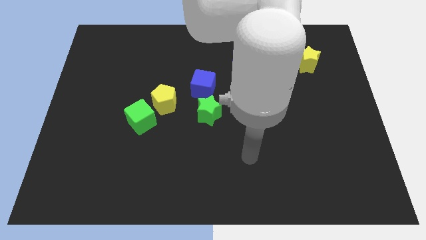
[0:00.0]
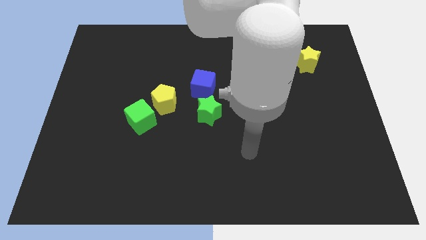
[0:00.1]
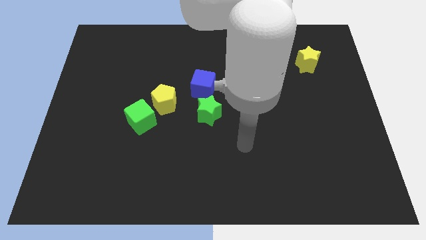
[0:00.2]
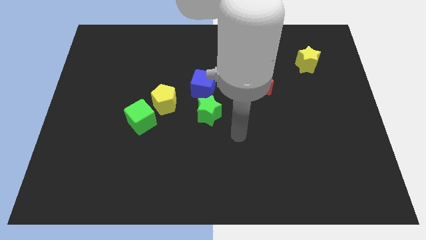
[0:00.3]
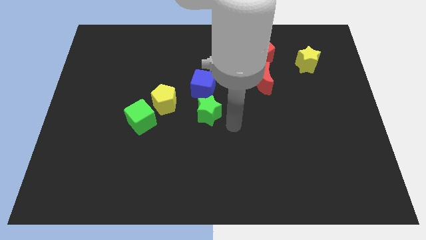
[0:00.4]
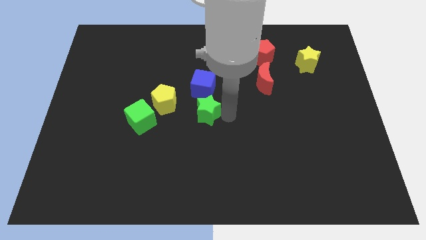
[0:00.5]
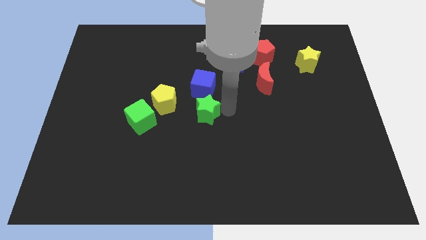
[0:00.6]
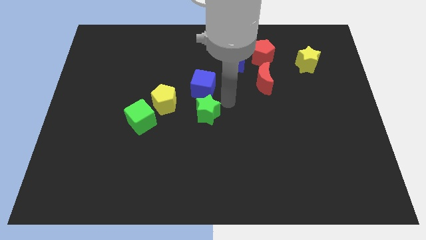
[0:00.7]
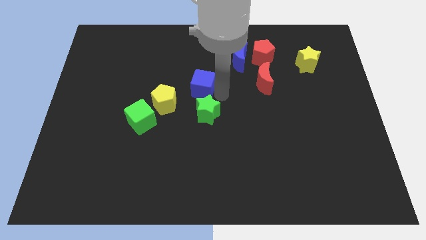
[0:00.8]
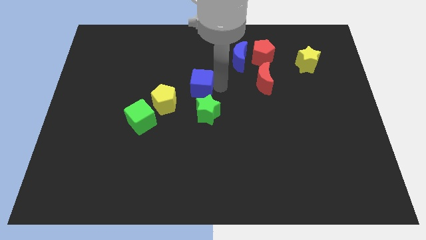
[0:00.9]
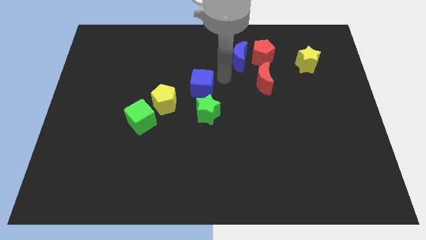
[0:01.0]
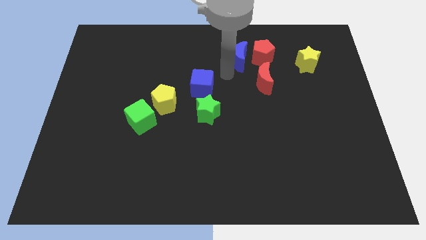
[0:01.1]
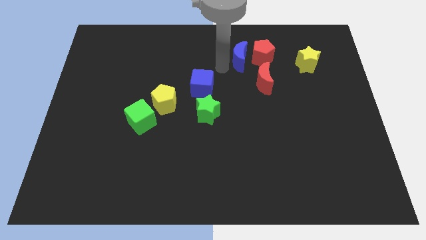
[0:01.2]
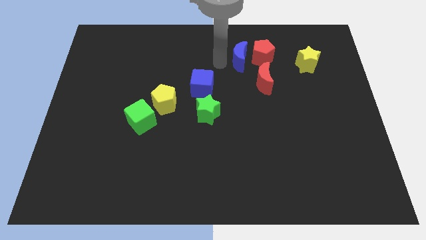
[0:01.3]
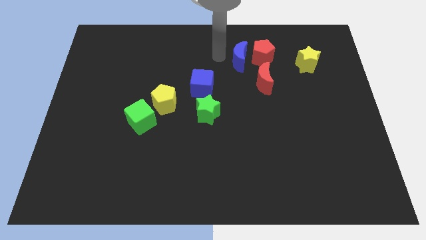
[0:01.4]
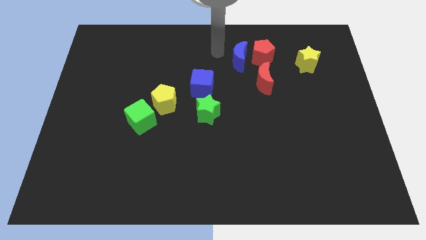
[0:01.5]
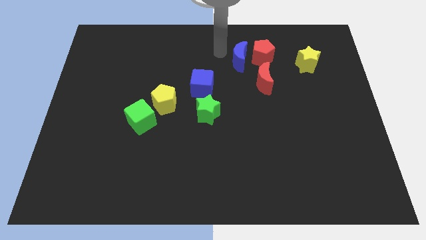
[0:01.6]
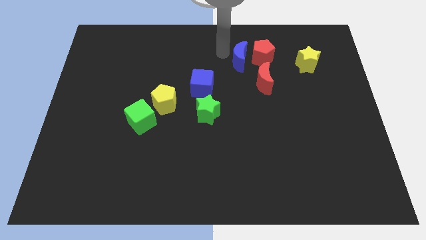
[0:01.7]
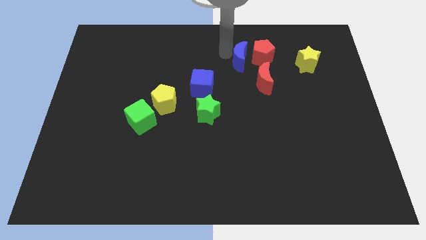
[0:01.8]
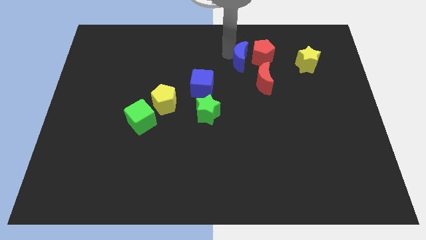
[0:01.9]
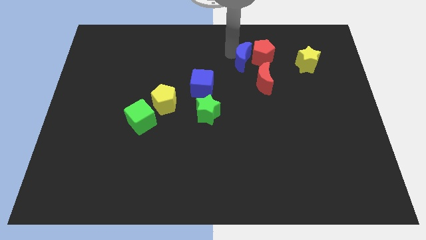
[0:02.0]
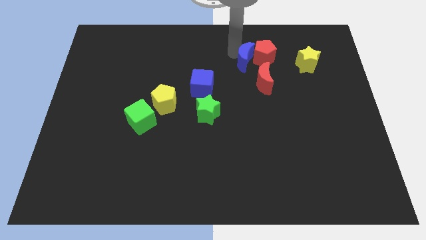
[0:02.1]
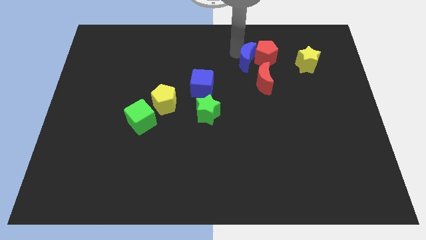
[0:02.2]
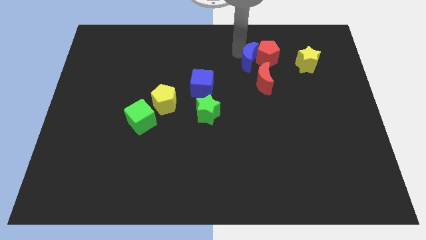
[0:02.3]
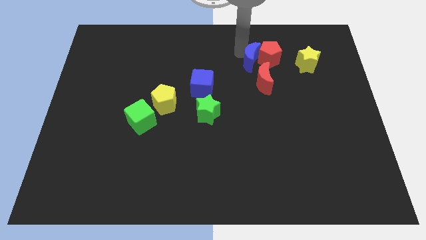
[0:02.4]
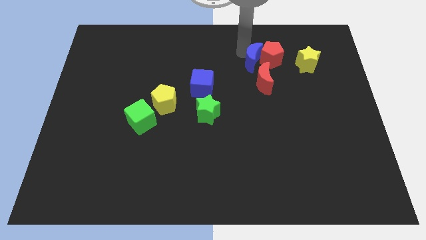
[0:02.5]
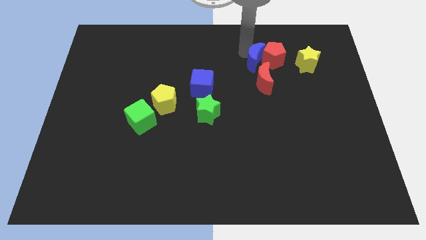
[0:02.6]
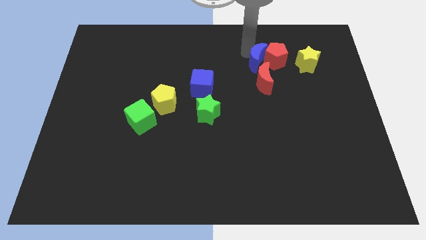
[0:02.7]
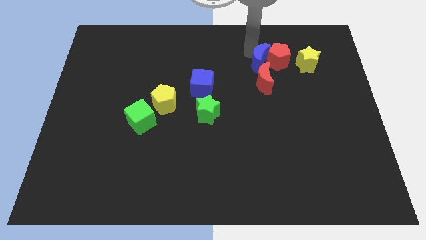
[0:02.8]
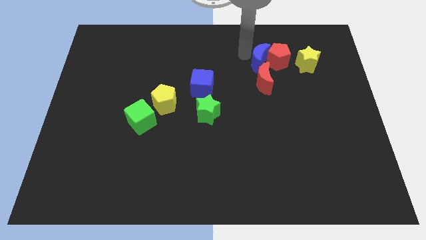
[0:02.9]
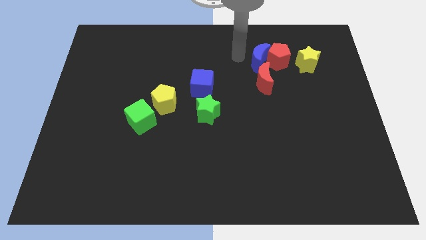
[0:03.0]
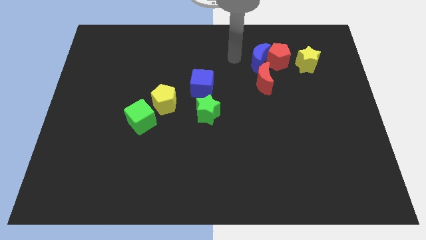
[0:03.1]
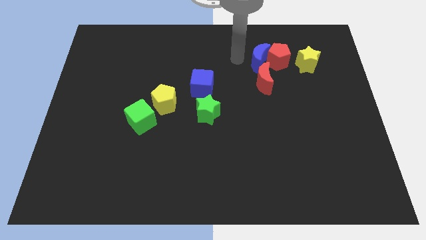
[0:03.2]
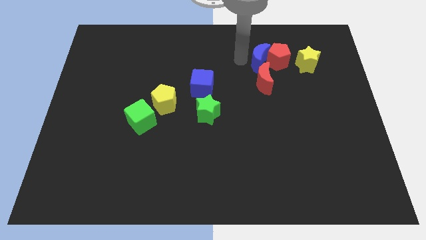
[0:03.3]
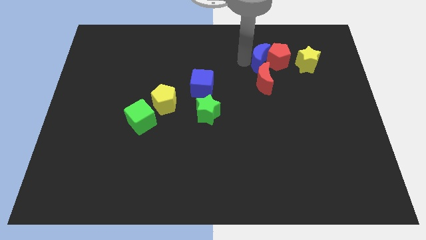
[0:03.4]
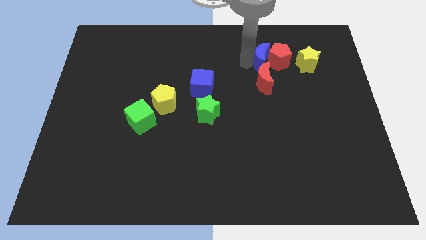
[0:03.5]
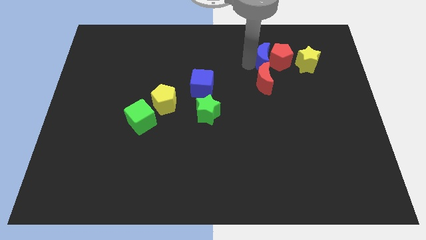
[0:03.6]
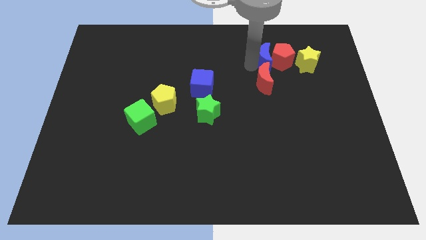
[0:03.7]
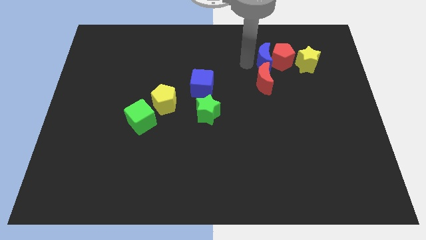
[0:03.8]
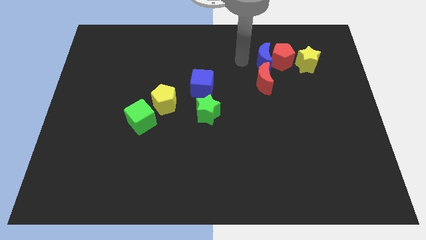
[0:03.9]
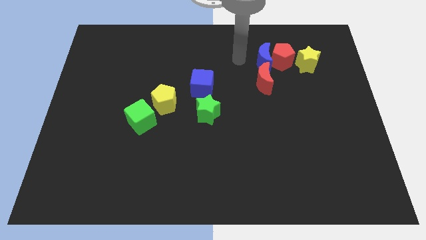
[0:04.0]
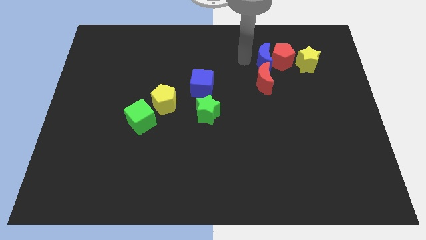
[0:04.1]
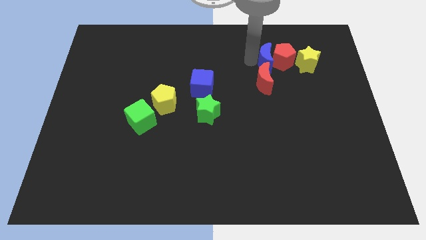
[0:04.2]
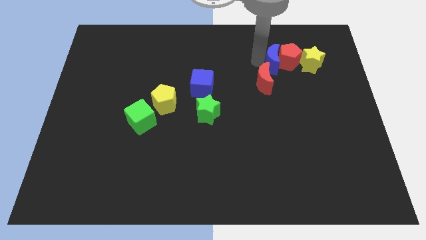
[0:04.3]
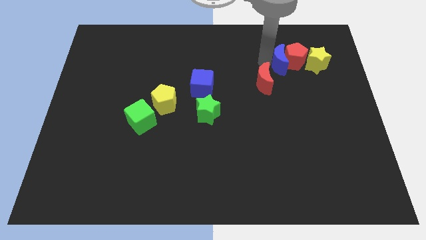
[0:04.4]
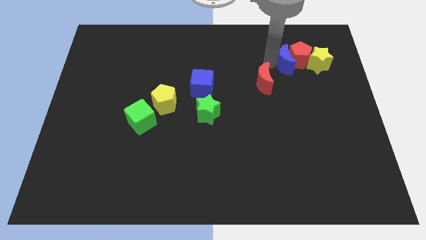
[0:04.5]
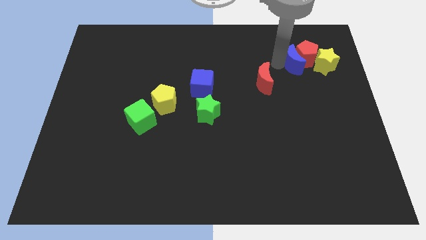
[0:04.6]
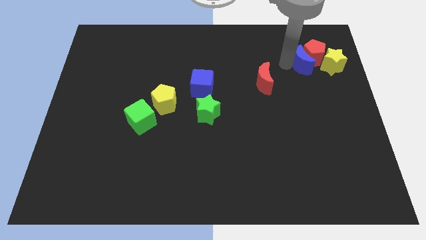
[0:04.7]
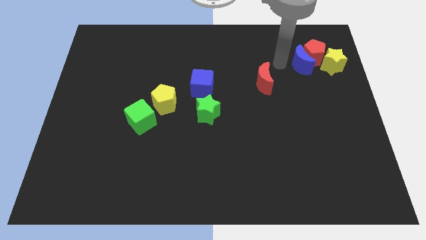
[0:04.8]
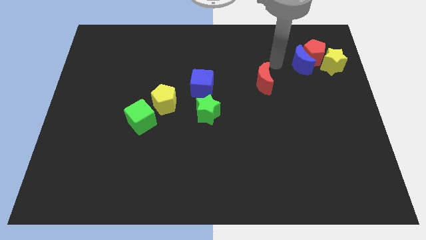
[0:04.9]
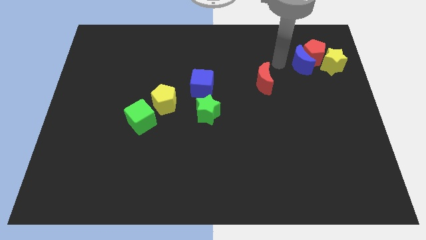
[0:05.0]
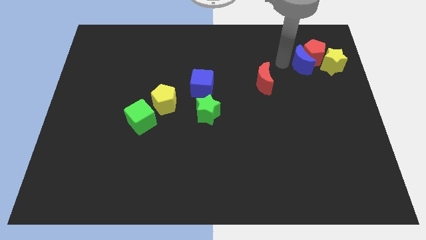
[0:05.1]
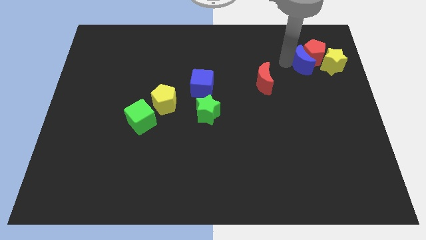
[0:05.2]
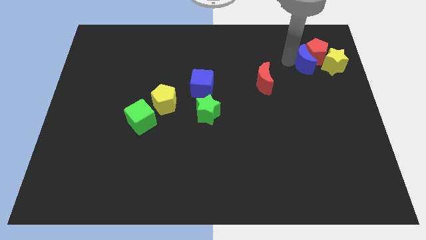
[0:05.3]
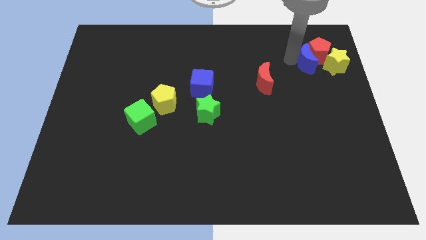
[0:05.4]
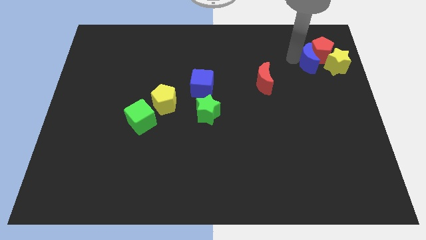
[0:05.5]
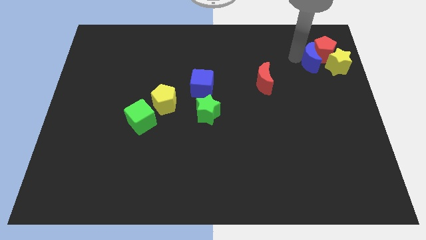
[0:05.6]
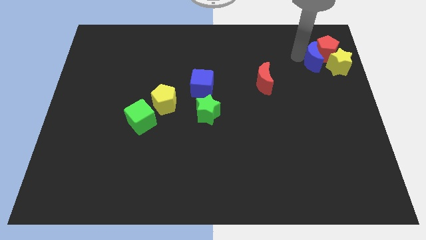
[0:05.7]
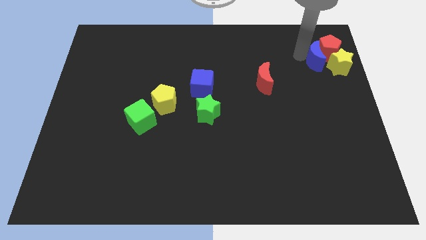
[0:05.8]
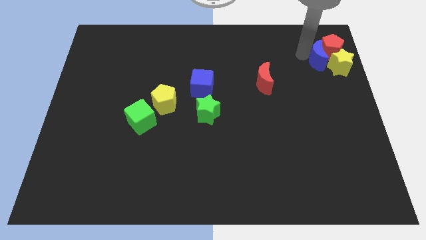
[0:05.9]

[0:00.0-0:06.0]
slide the blue moon to the yellow star

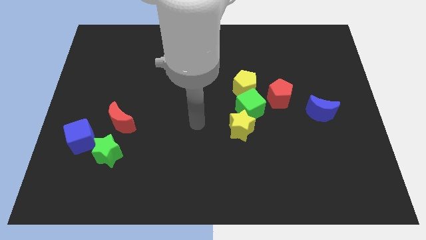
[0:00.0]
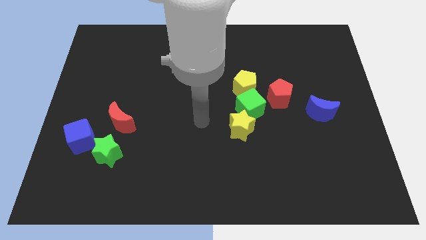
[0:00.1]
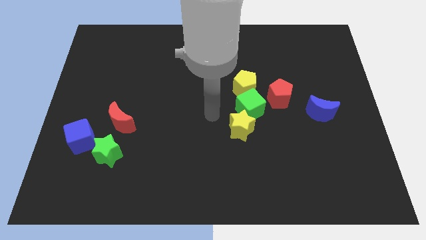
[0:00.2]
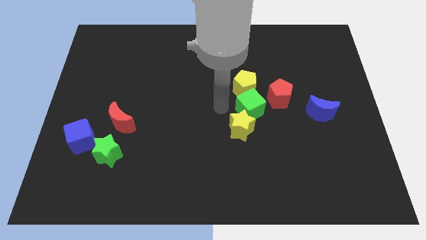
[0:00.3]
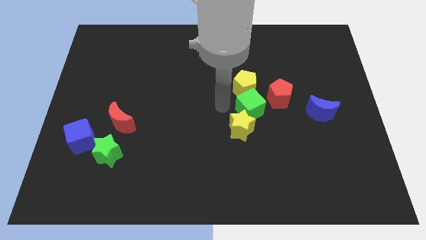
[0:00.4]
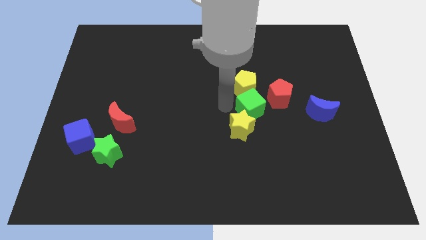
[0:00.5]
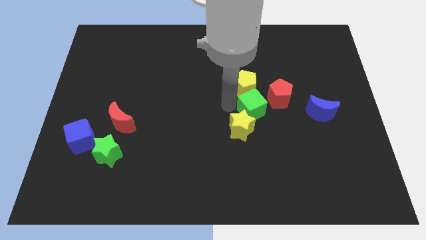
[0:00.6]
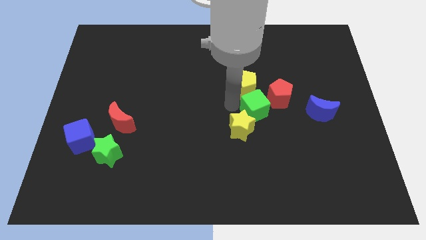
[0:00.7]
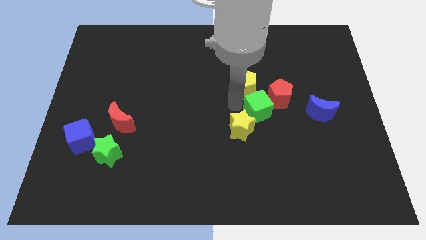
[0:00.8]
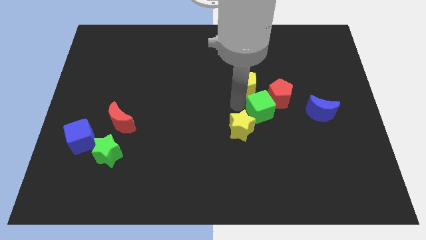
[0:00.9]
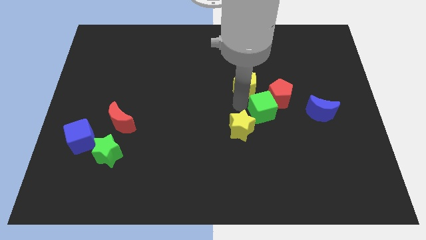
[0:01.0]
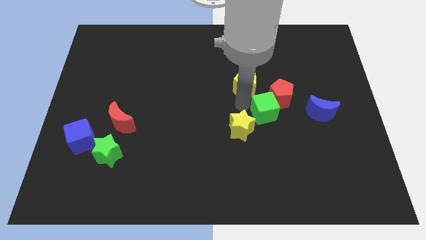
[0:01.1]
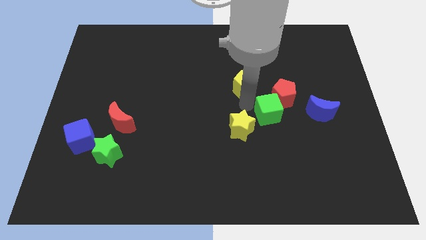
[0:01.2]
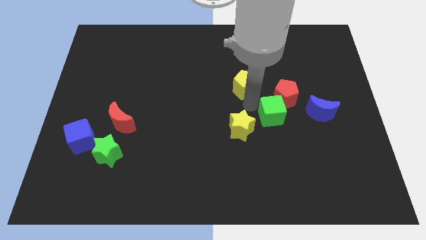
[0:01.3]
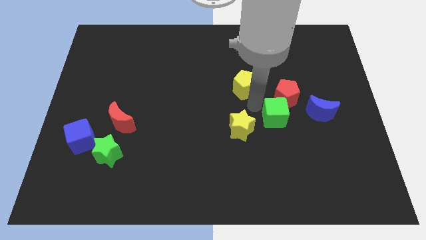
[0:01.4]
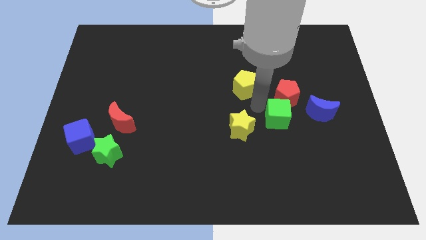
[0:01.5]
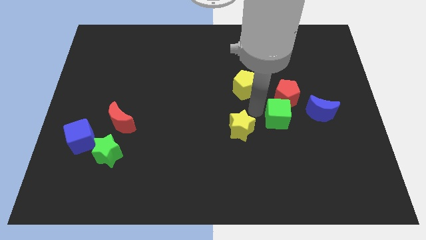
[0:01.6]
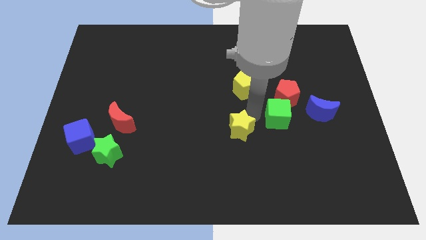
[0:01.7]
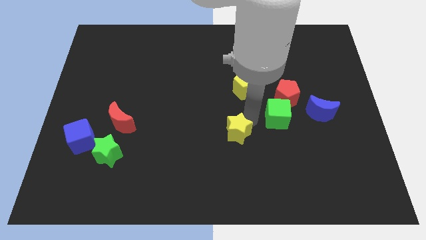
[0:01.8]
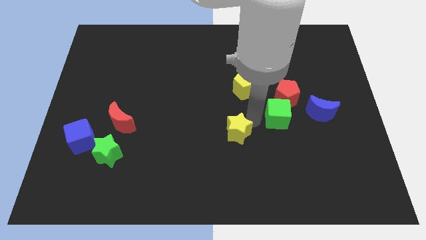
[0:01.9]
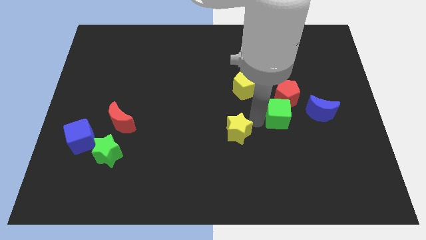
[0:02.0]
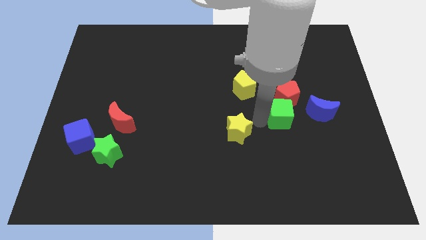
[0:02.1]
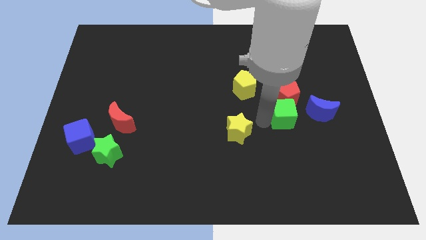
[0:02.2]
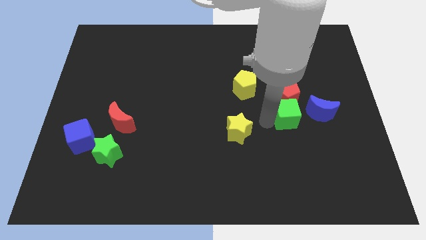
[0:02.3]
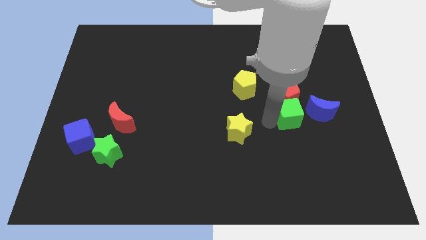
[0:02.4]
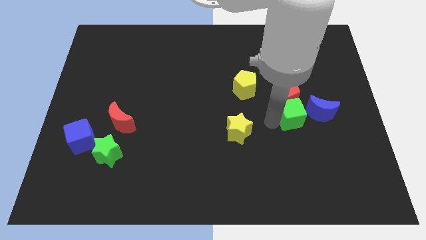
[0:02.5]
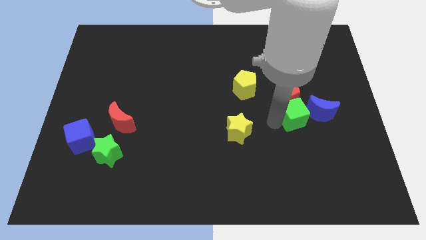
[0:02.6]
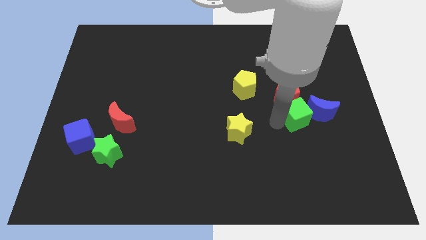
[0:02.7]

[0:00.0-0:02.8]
push the green cube towards the blue moon
